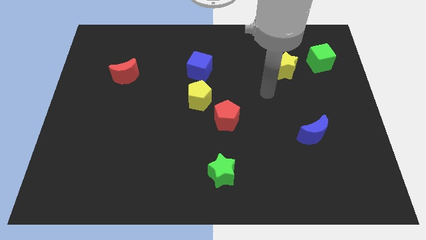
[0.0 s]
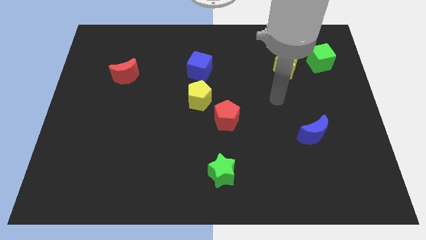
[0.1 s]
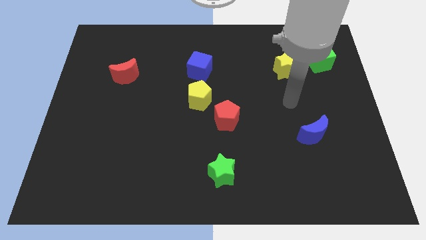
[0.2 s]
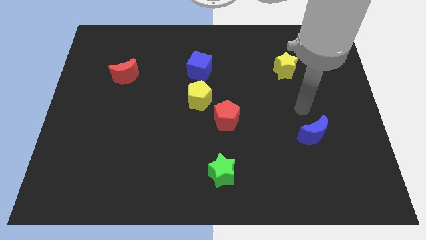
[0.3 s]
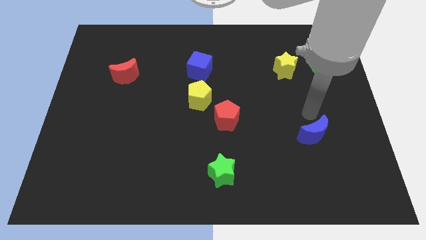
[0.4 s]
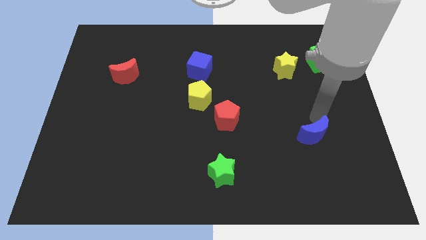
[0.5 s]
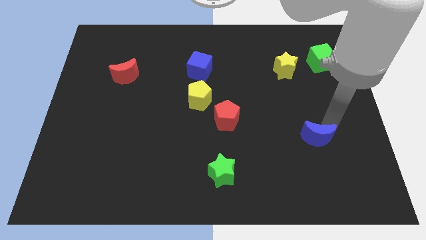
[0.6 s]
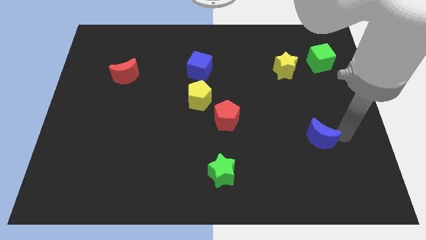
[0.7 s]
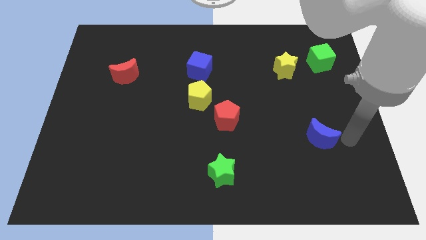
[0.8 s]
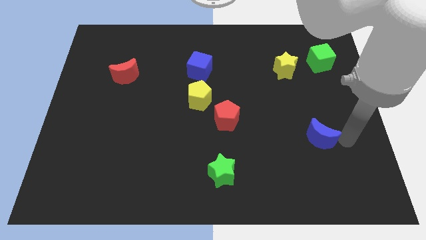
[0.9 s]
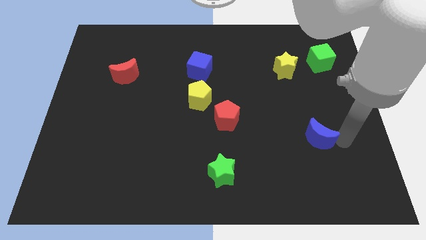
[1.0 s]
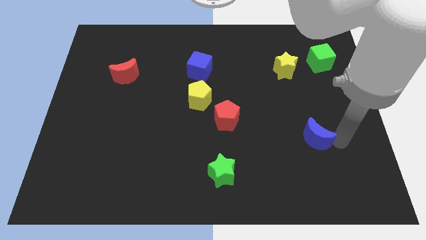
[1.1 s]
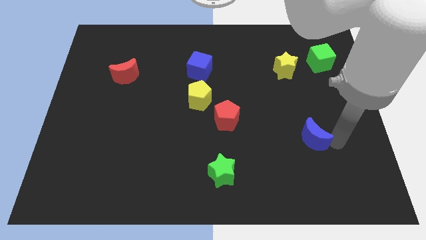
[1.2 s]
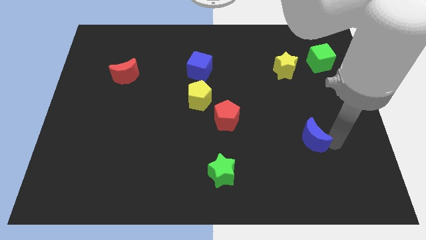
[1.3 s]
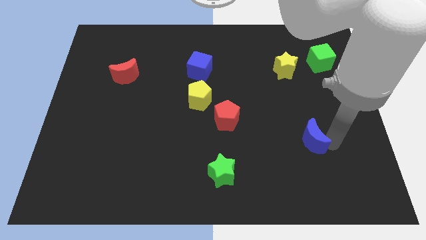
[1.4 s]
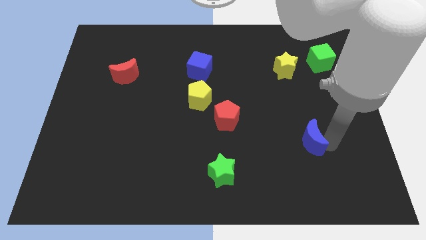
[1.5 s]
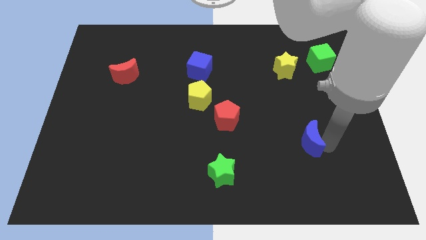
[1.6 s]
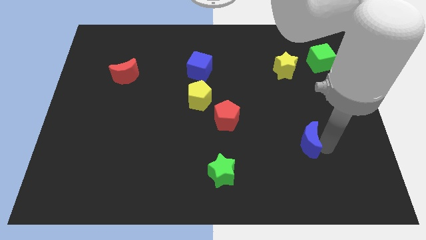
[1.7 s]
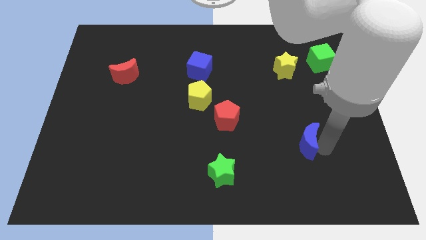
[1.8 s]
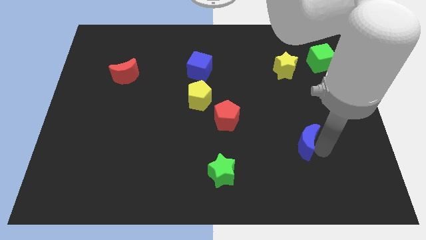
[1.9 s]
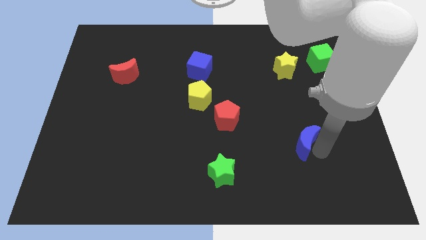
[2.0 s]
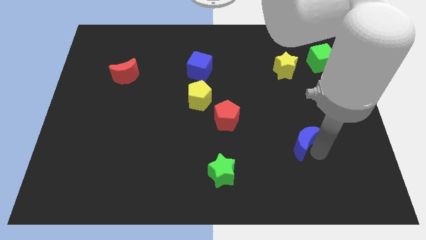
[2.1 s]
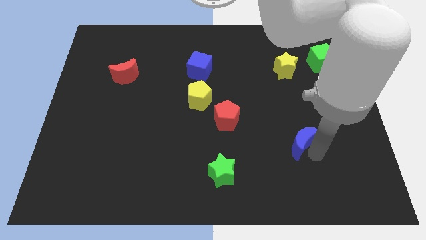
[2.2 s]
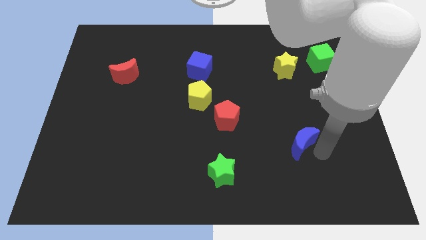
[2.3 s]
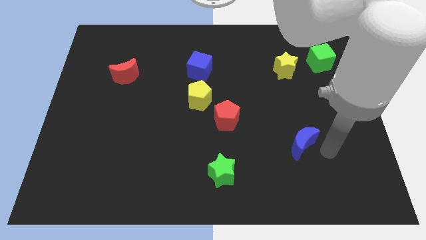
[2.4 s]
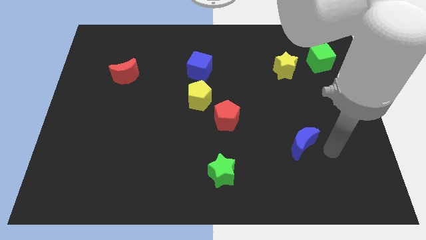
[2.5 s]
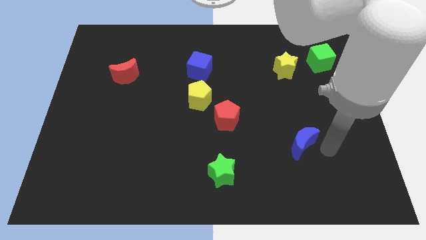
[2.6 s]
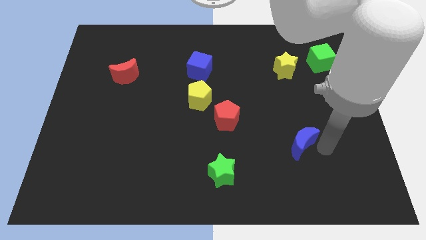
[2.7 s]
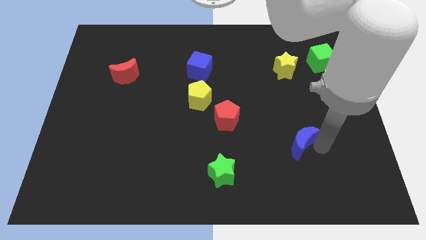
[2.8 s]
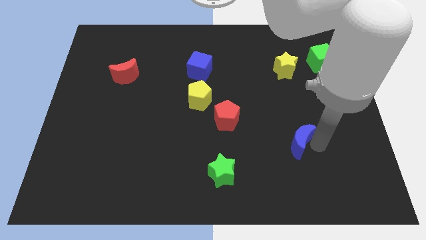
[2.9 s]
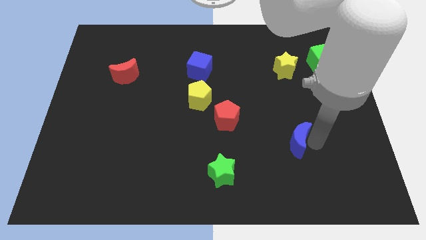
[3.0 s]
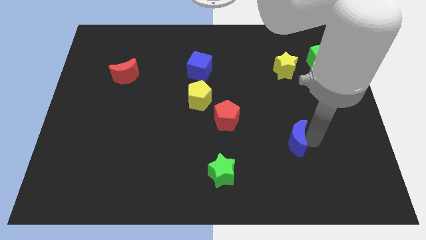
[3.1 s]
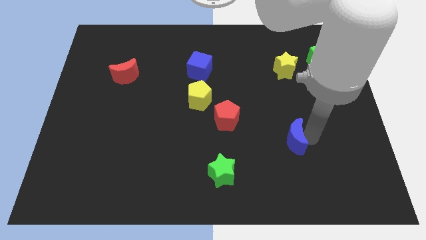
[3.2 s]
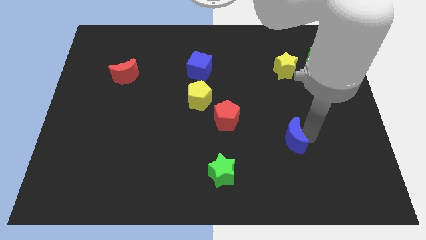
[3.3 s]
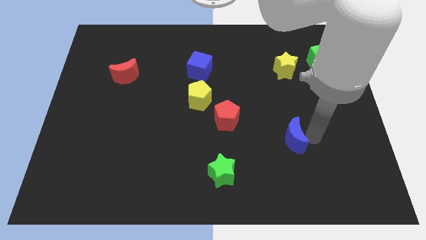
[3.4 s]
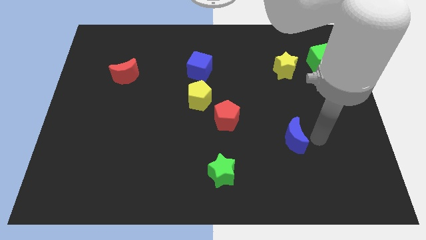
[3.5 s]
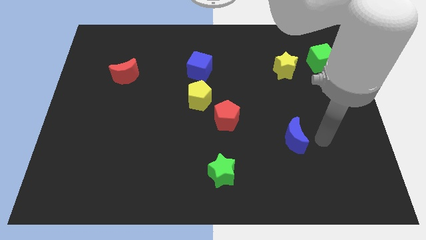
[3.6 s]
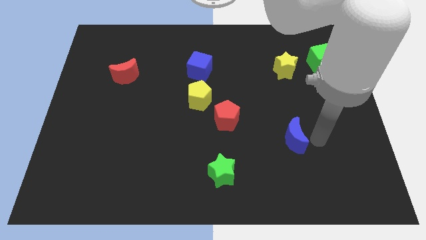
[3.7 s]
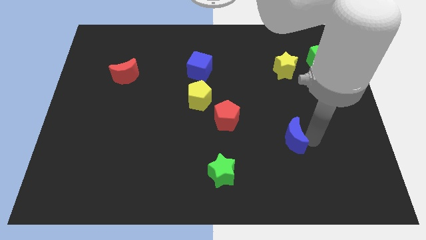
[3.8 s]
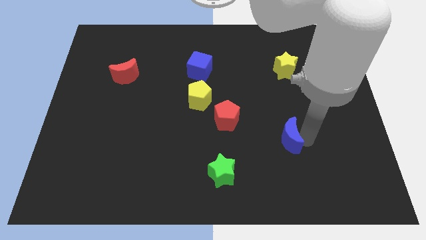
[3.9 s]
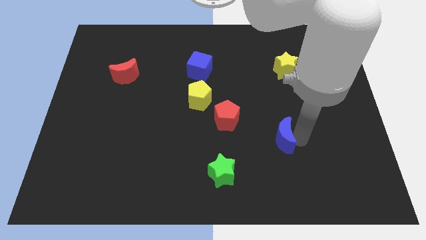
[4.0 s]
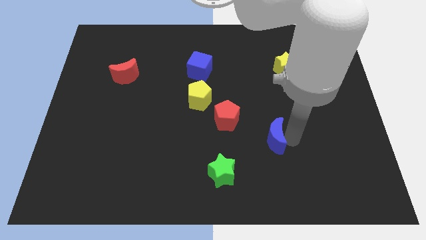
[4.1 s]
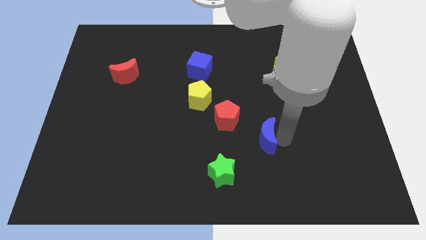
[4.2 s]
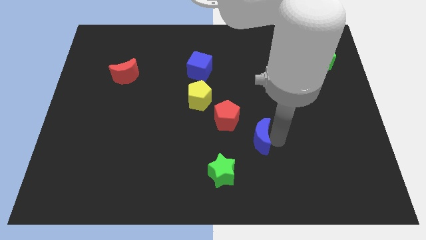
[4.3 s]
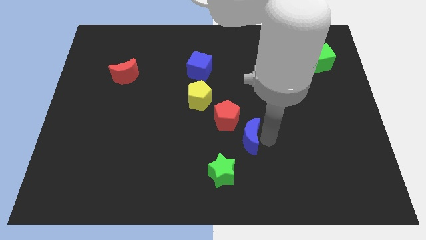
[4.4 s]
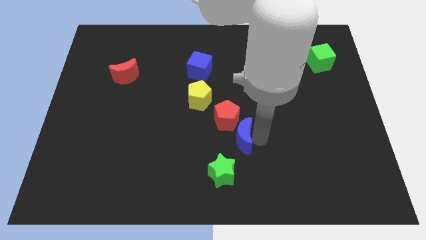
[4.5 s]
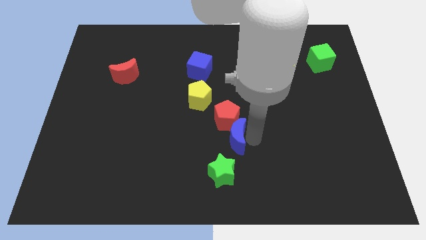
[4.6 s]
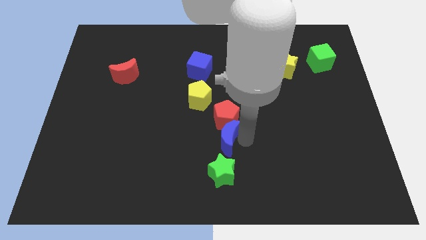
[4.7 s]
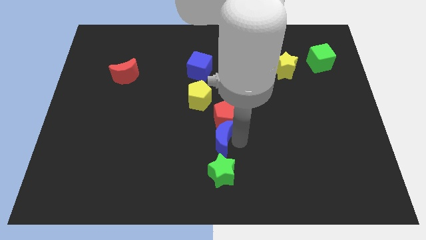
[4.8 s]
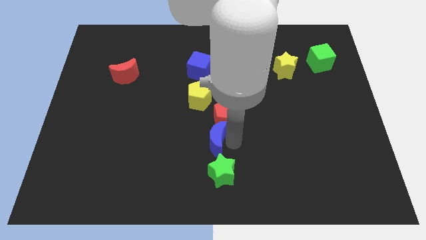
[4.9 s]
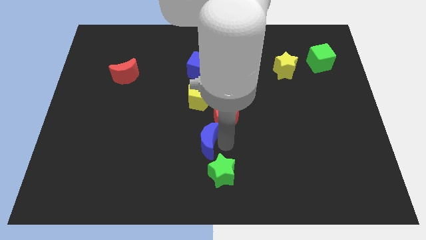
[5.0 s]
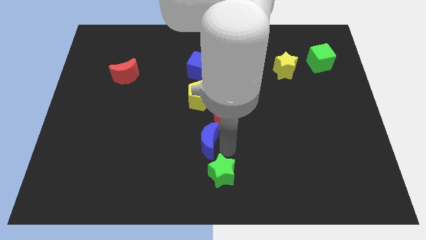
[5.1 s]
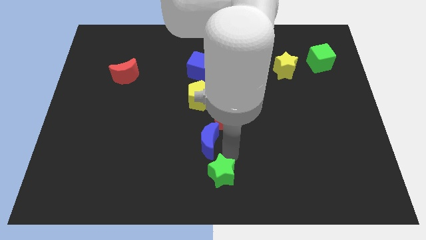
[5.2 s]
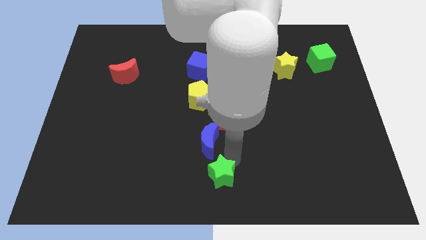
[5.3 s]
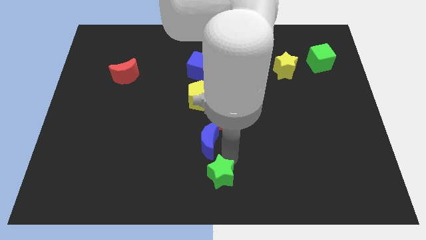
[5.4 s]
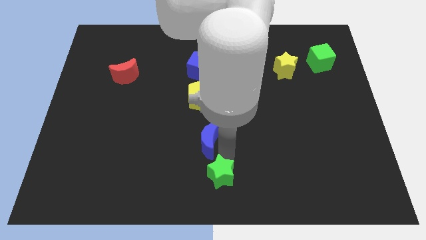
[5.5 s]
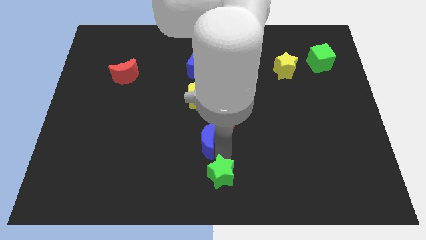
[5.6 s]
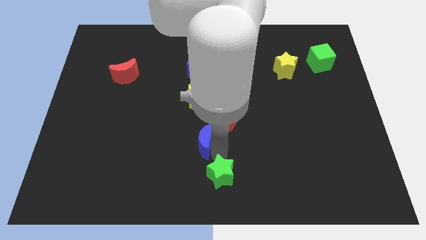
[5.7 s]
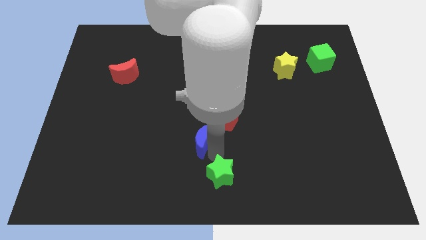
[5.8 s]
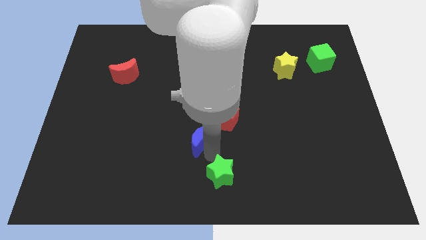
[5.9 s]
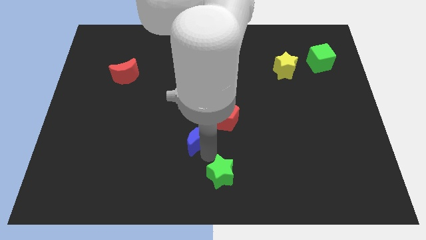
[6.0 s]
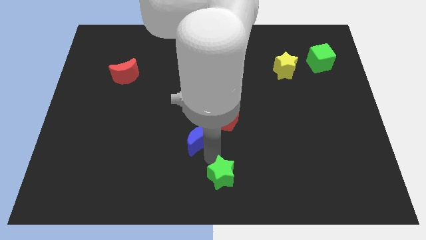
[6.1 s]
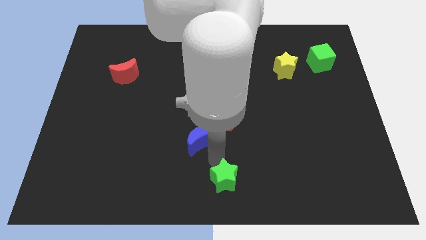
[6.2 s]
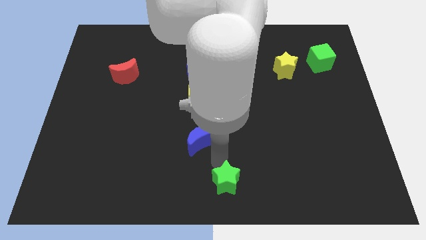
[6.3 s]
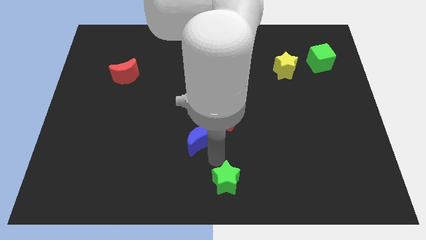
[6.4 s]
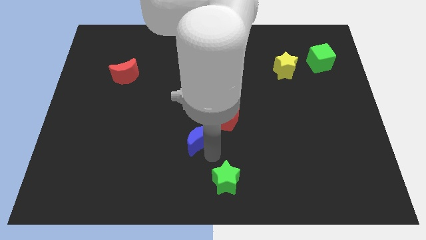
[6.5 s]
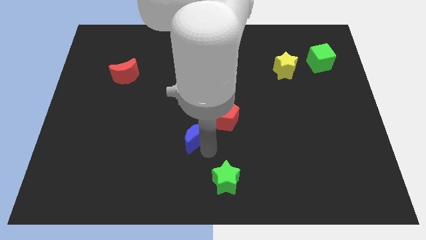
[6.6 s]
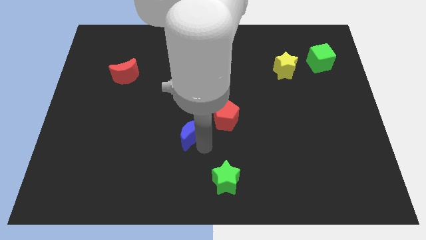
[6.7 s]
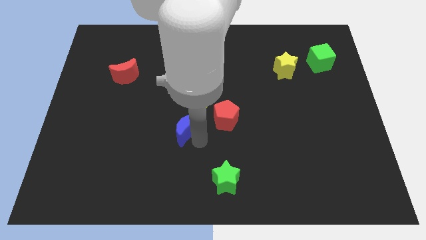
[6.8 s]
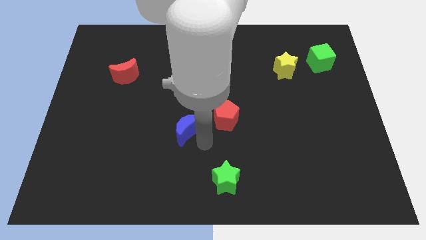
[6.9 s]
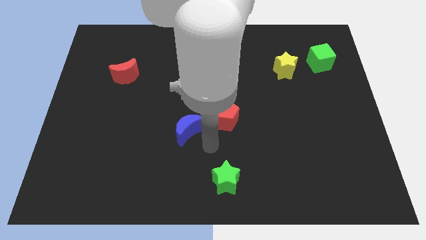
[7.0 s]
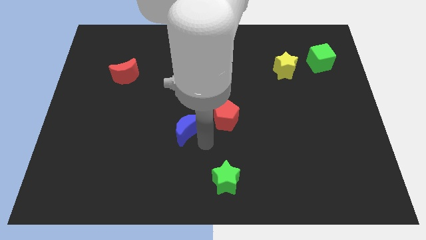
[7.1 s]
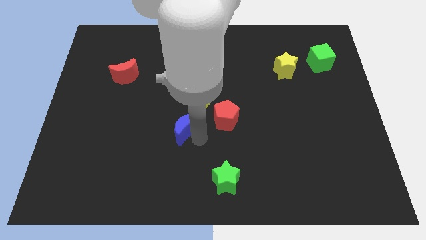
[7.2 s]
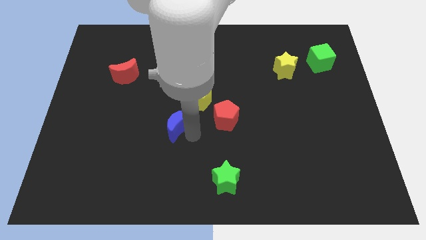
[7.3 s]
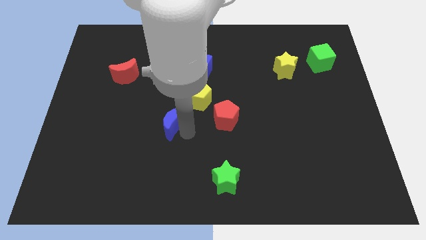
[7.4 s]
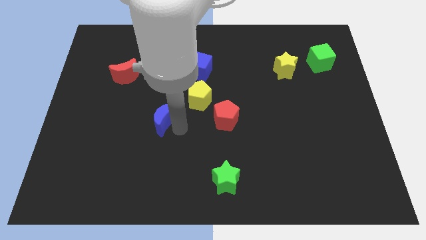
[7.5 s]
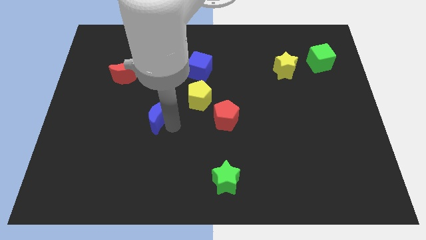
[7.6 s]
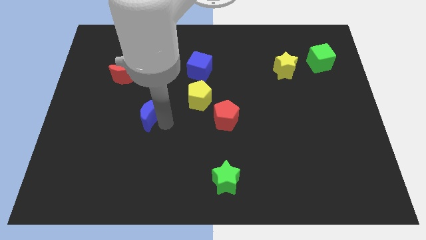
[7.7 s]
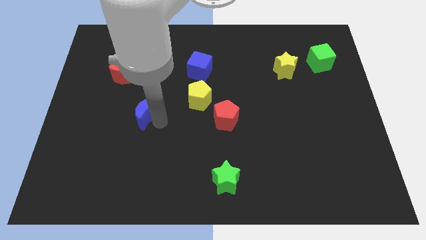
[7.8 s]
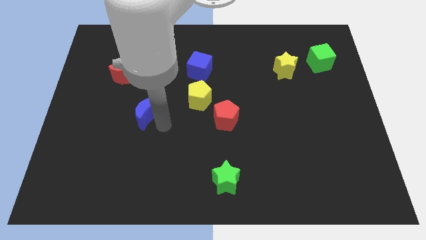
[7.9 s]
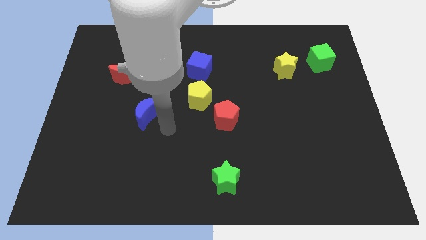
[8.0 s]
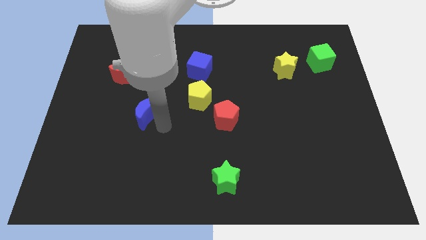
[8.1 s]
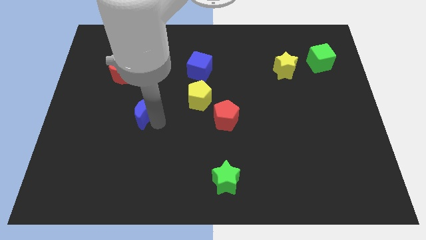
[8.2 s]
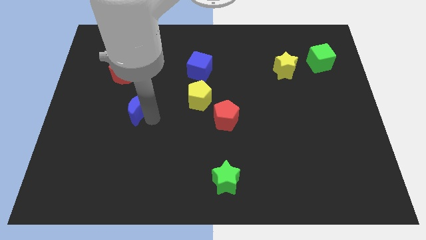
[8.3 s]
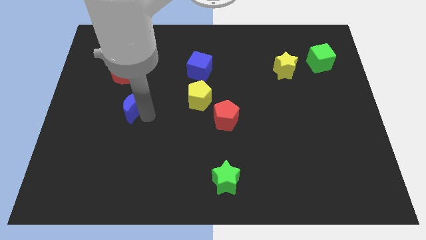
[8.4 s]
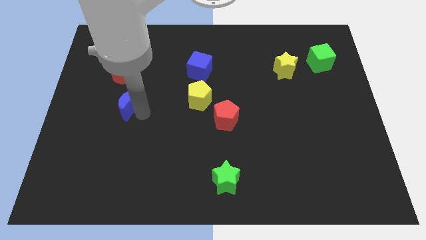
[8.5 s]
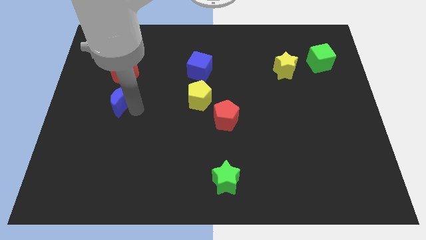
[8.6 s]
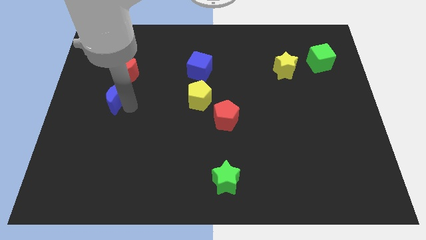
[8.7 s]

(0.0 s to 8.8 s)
slide the blue moon to the bottom left of the red moon
